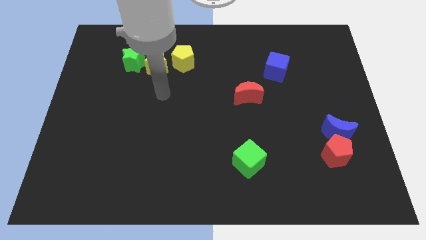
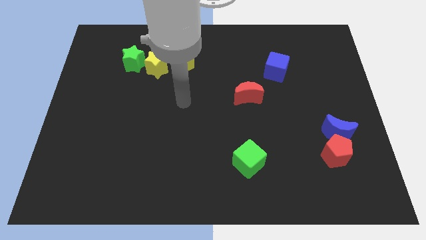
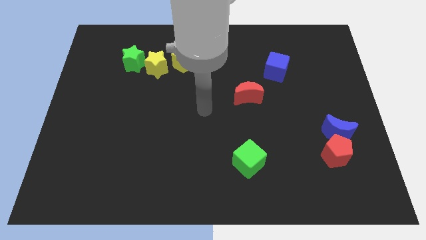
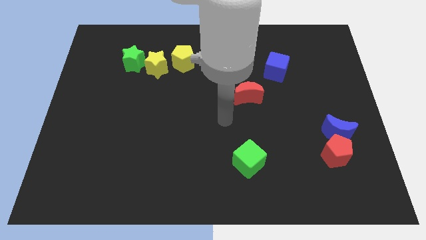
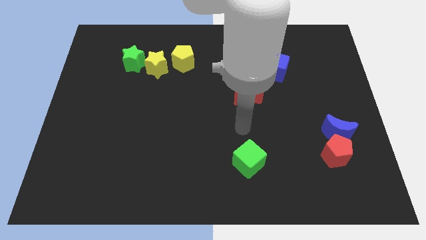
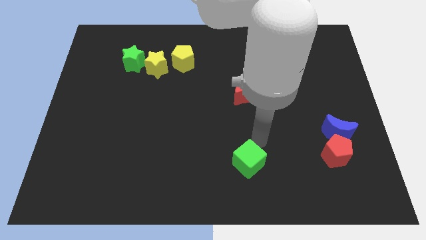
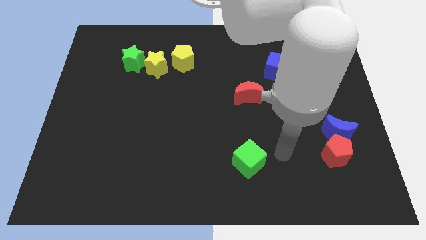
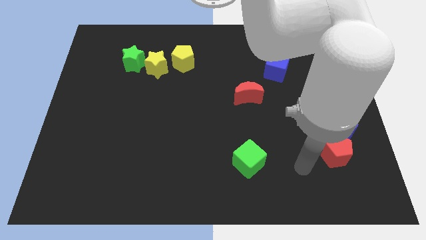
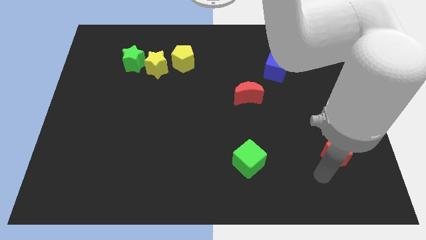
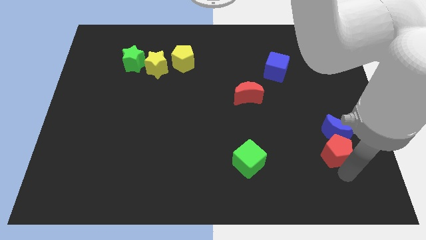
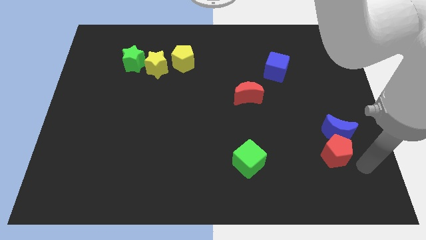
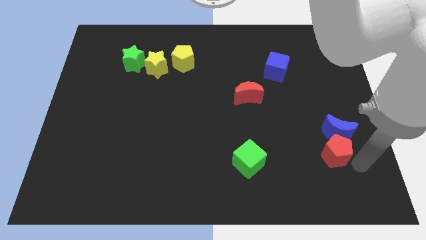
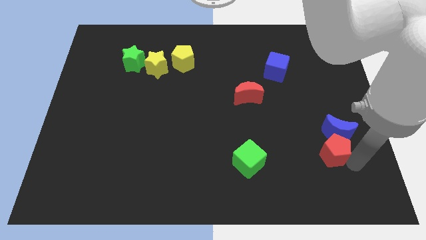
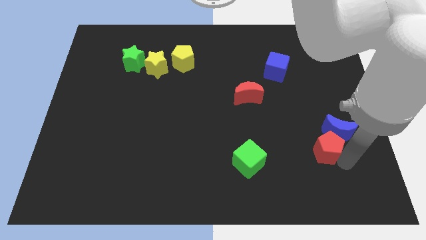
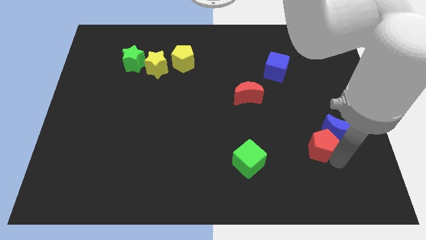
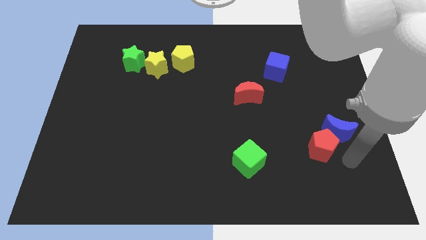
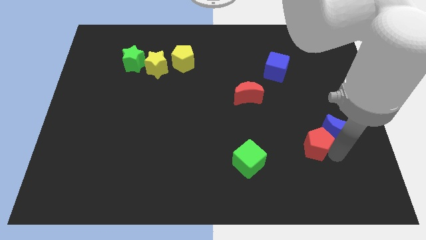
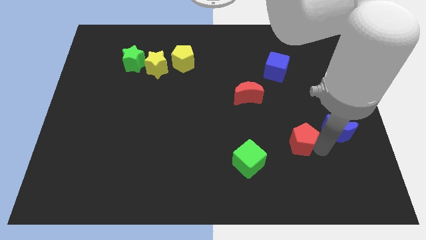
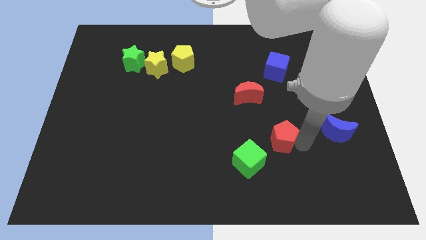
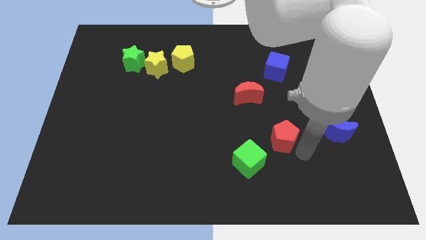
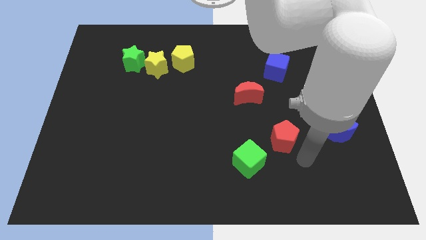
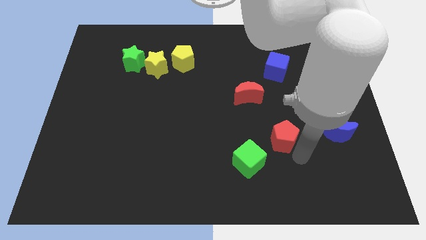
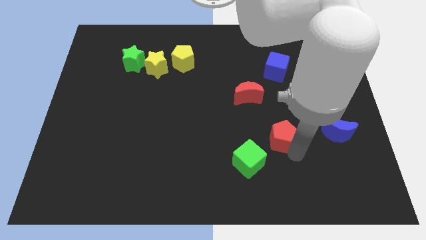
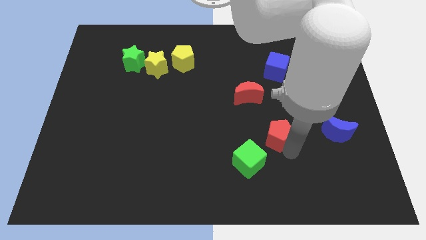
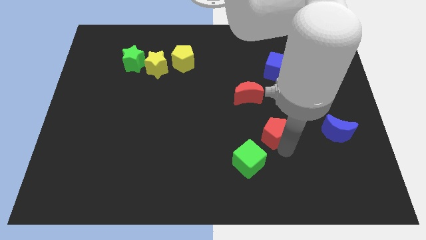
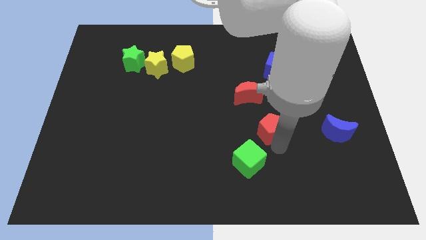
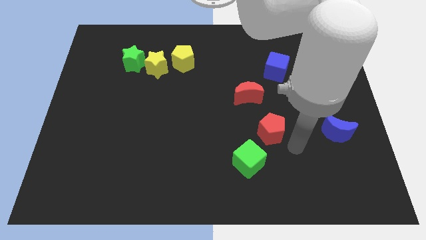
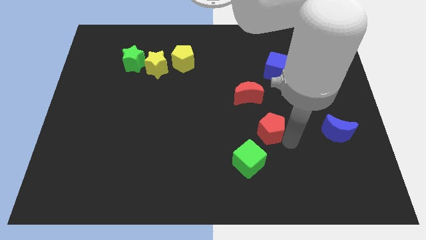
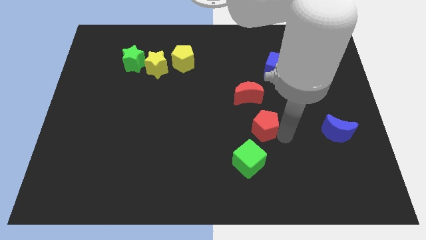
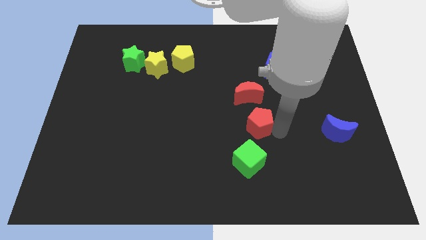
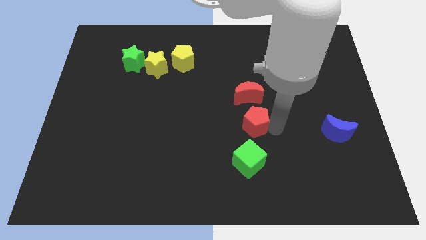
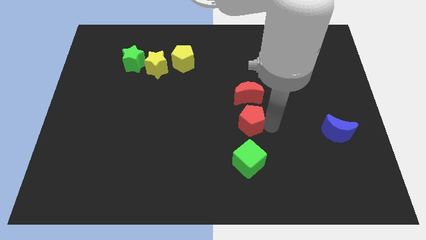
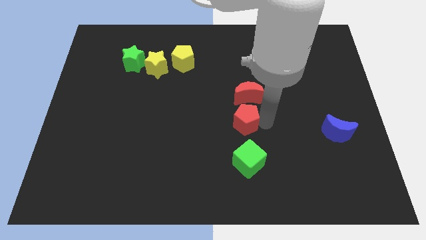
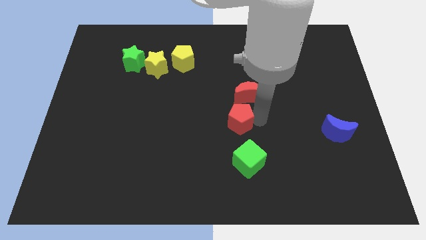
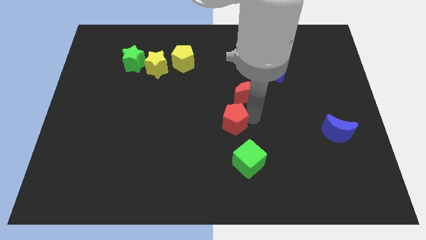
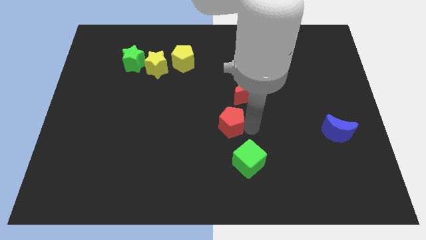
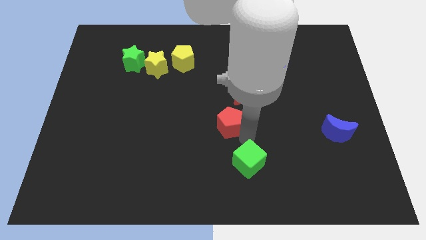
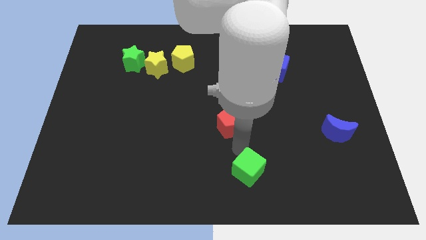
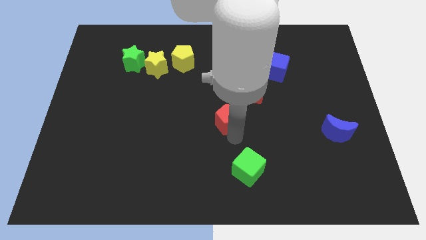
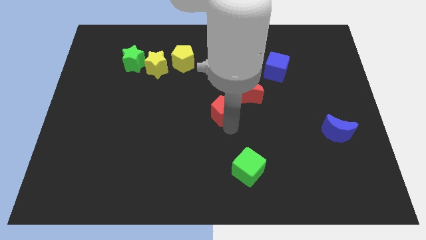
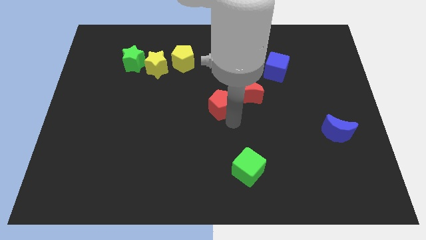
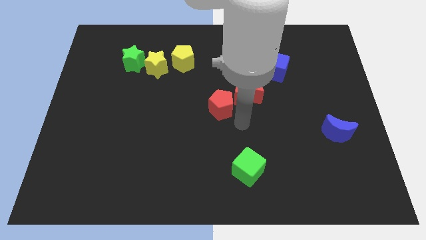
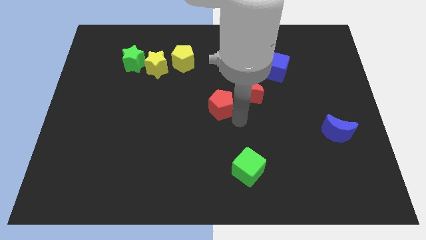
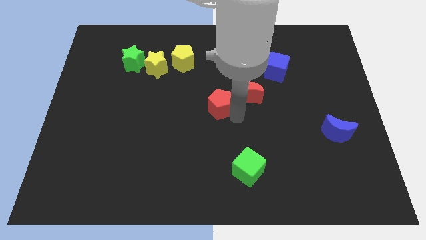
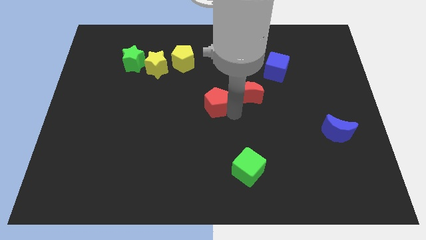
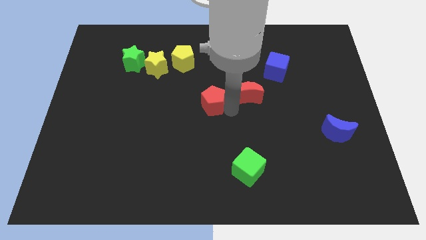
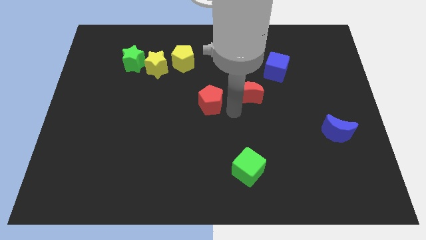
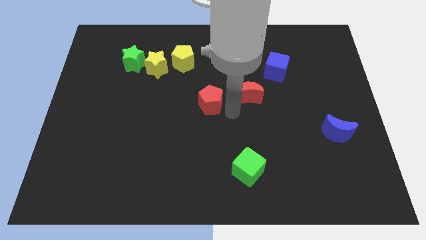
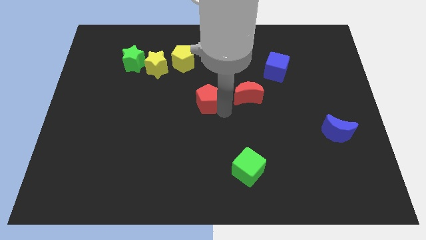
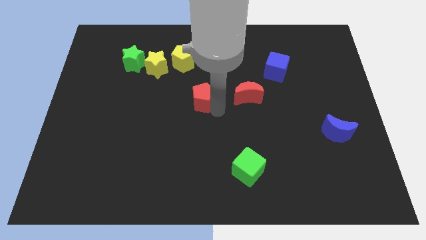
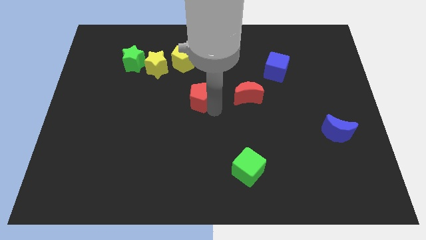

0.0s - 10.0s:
move the red pentagon to the bottom side of the yellow pentagon

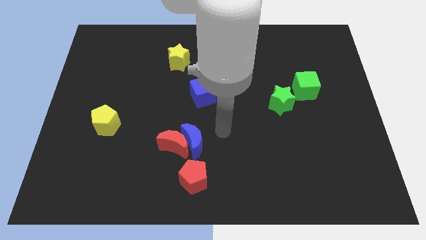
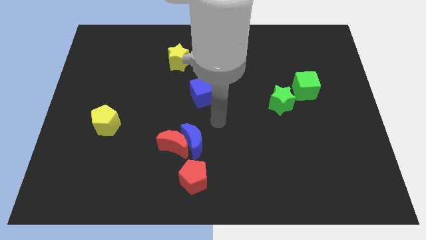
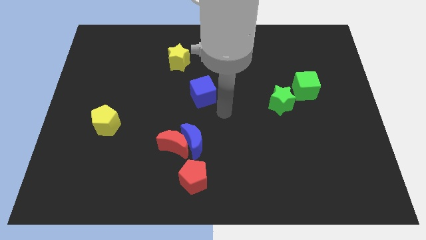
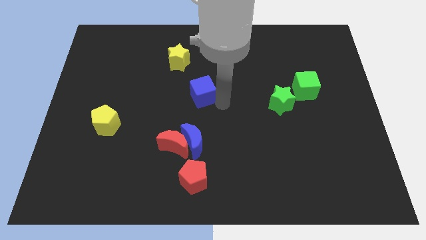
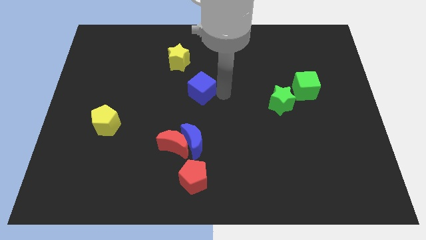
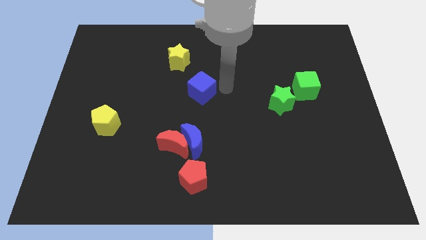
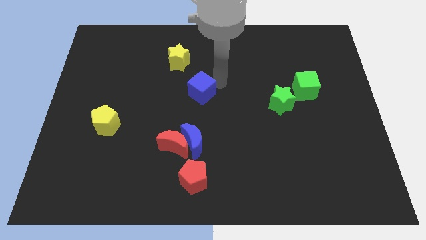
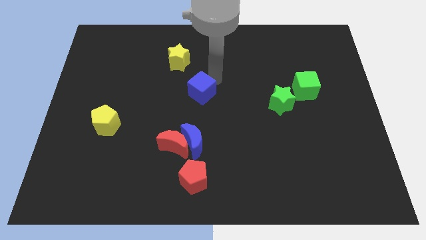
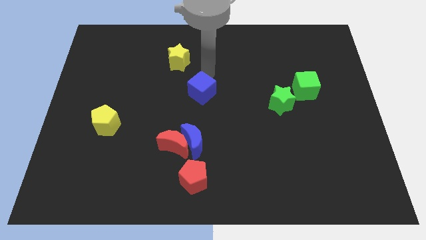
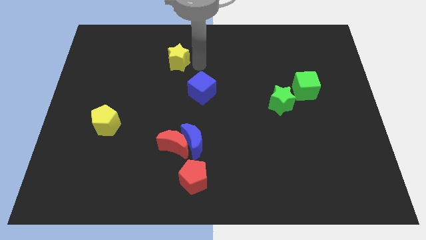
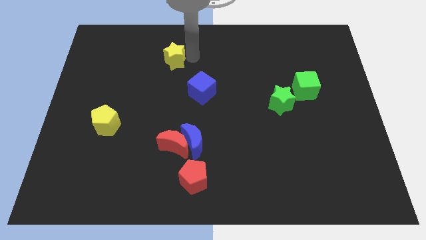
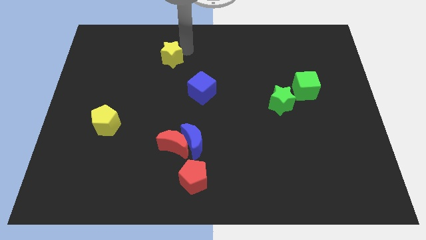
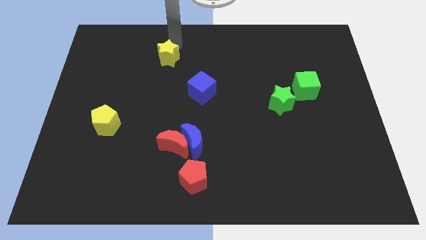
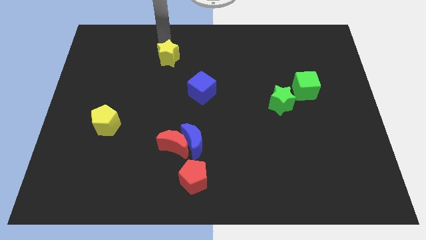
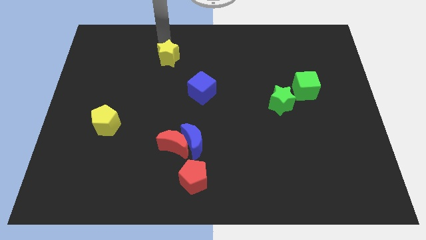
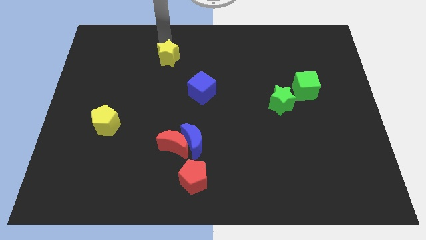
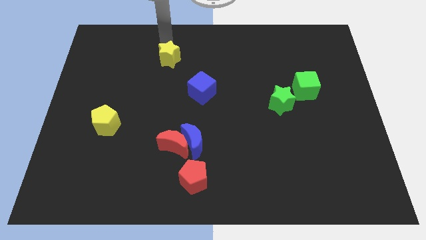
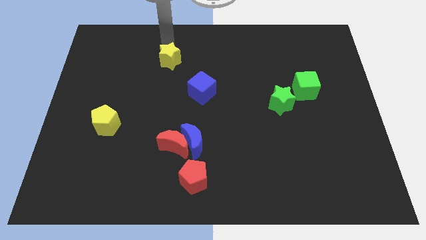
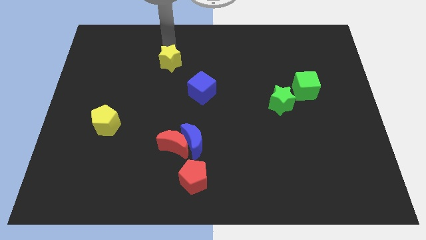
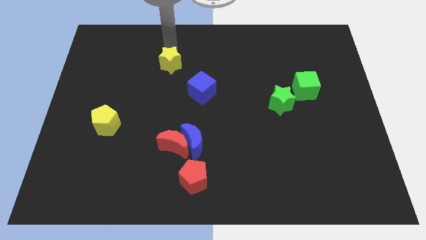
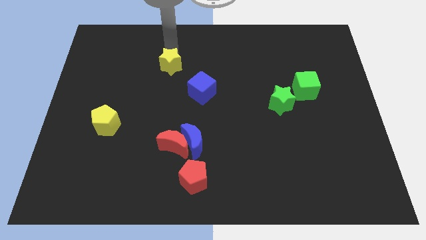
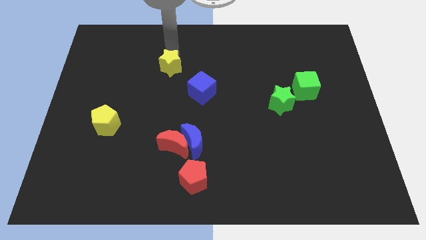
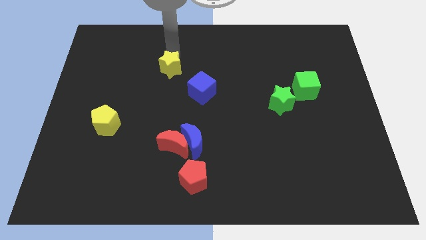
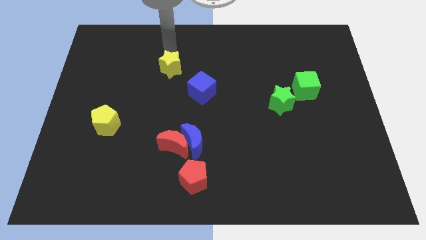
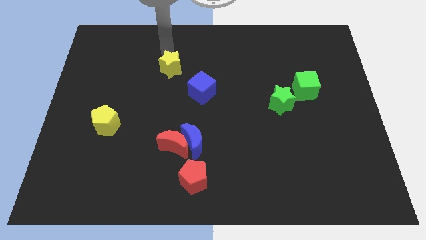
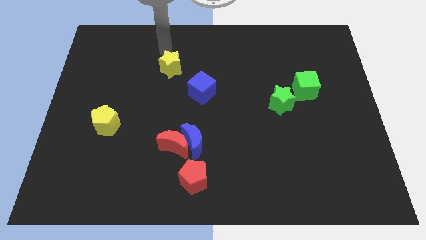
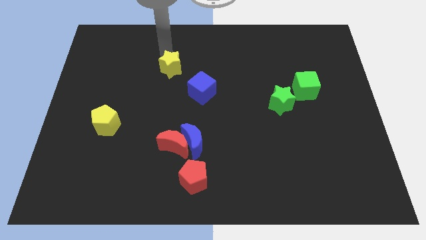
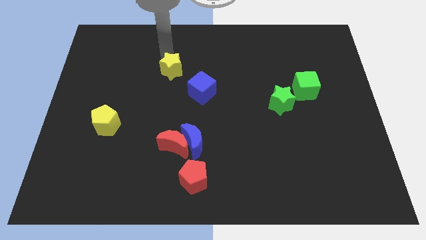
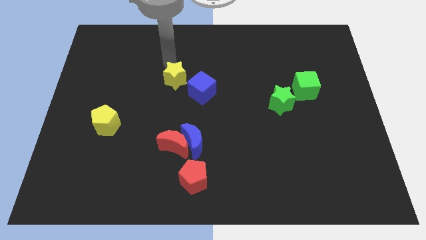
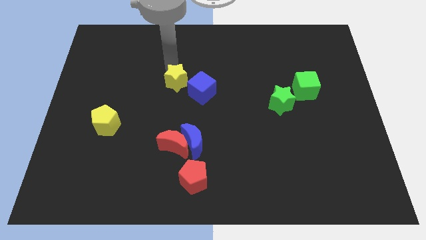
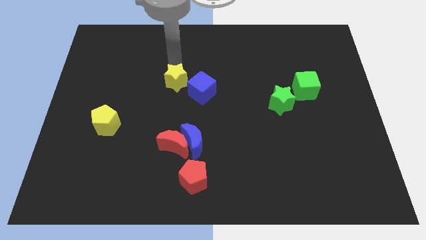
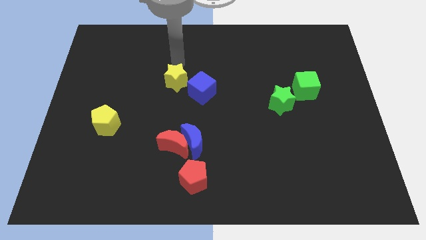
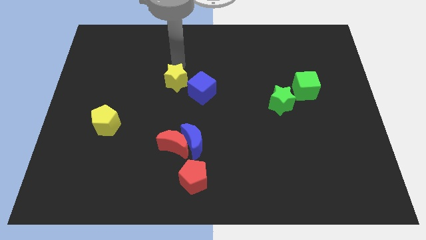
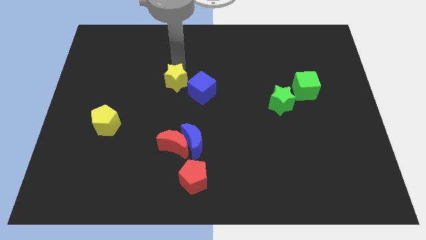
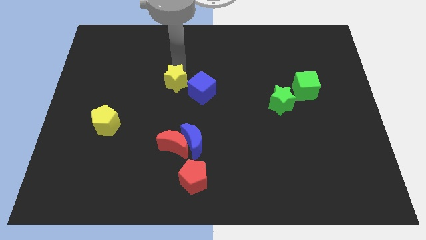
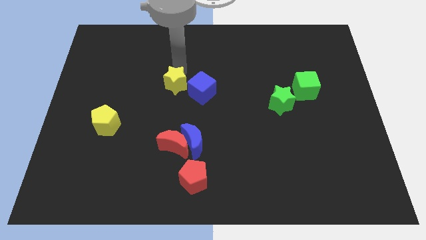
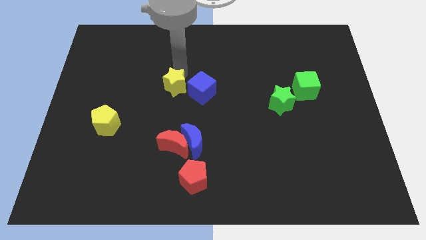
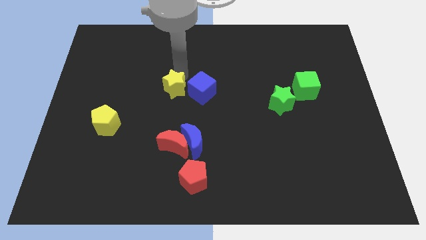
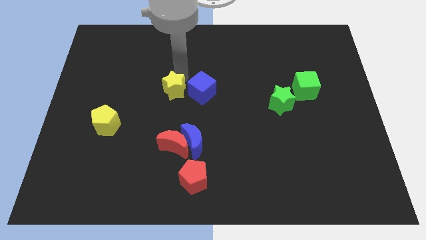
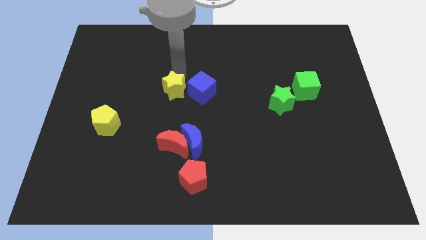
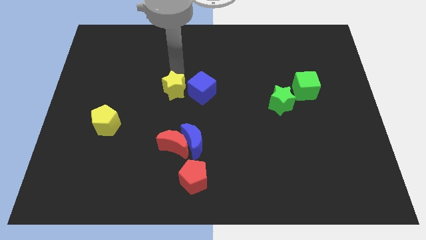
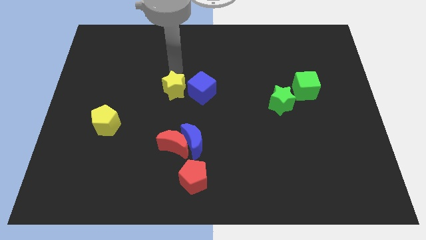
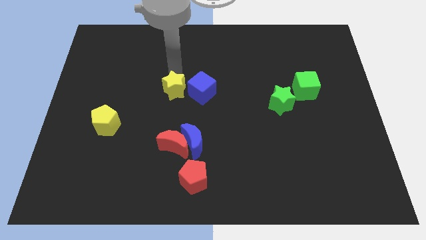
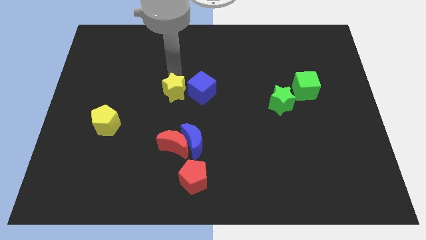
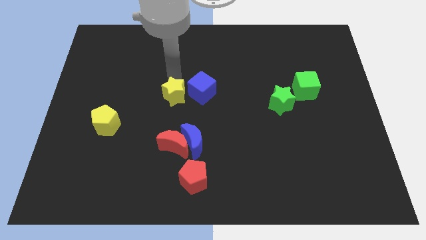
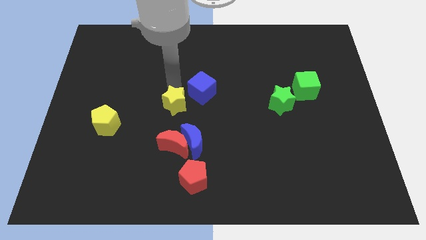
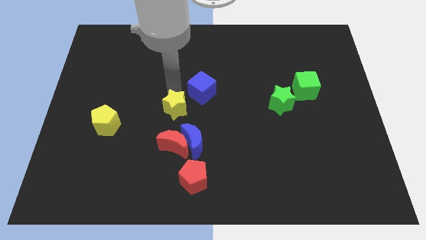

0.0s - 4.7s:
push the yellow star diagonally up and to the left of the blue moon
